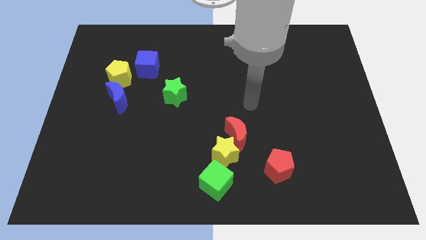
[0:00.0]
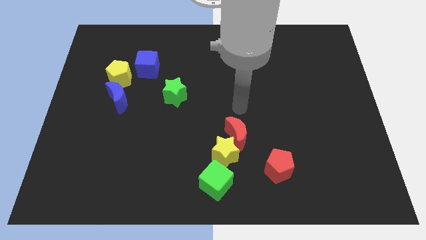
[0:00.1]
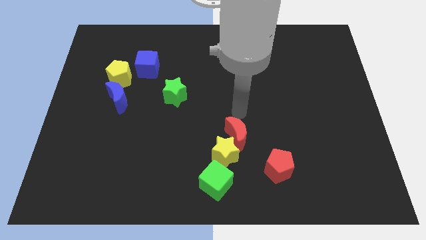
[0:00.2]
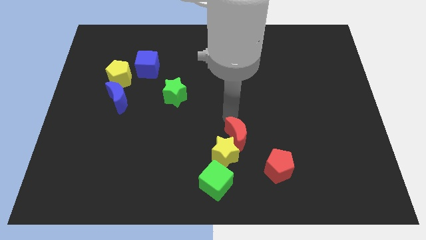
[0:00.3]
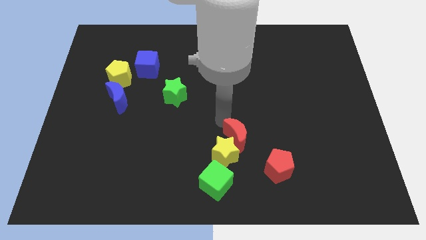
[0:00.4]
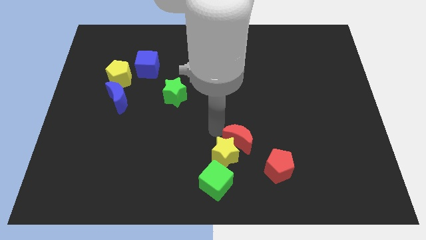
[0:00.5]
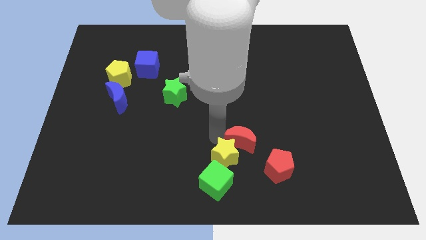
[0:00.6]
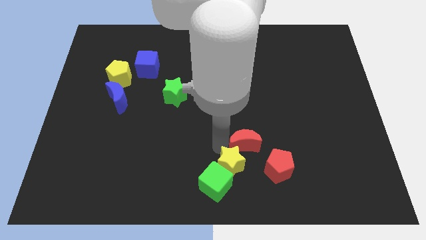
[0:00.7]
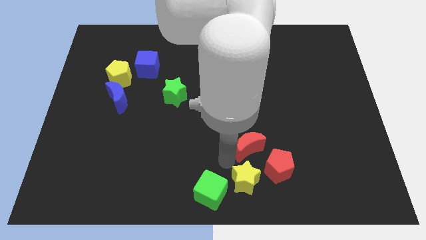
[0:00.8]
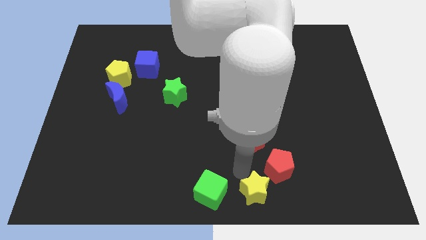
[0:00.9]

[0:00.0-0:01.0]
pull the red moon apart from the yellow star

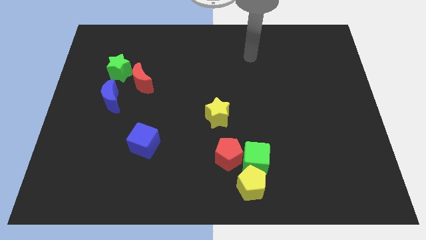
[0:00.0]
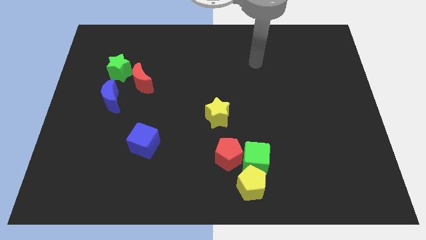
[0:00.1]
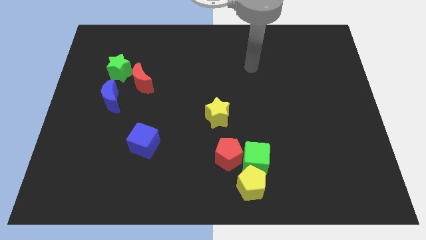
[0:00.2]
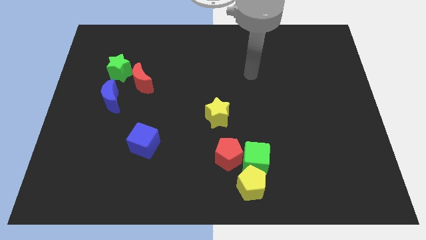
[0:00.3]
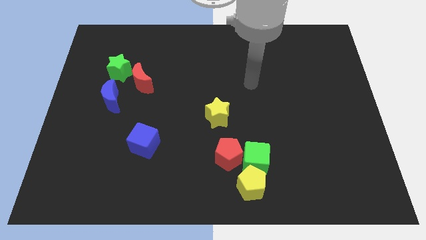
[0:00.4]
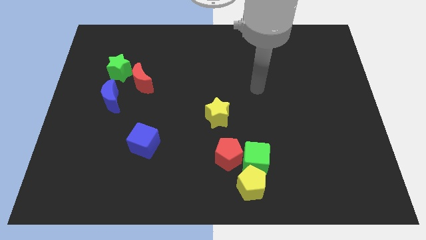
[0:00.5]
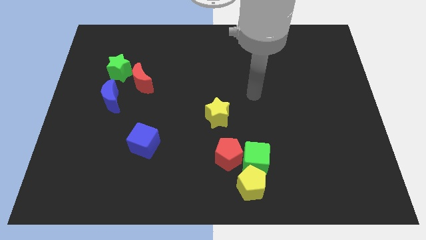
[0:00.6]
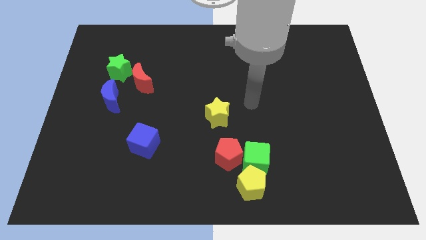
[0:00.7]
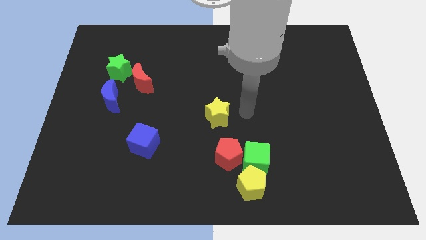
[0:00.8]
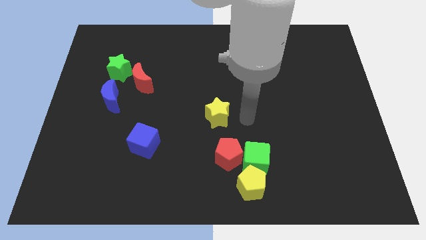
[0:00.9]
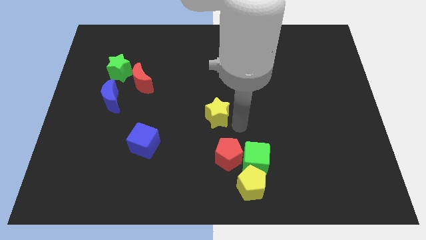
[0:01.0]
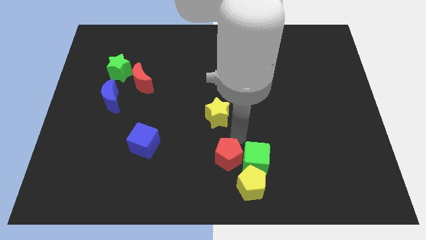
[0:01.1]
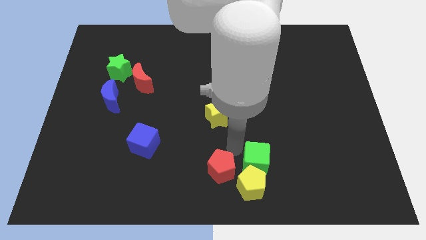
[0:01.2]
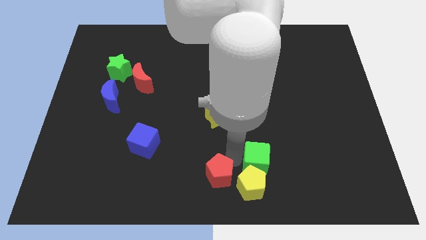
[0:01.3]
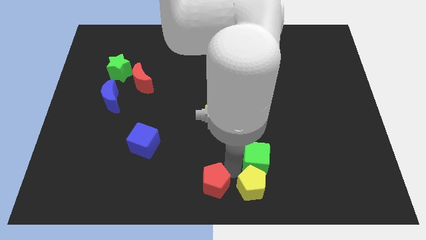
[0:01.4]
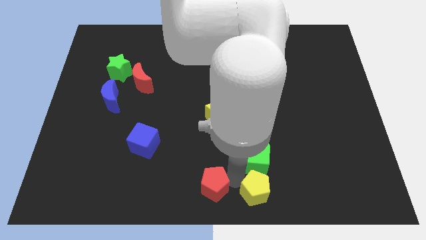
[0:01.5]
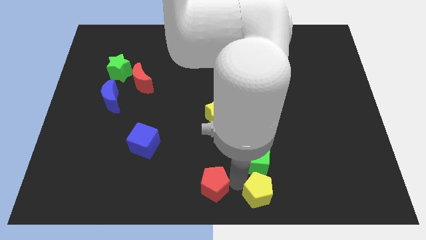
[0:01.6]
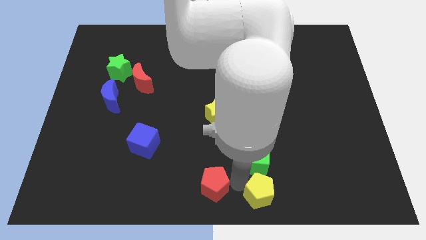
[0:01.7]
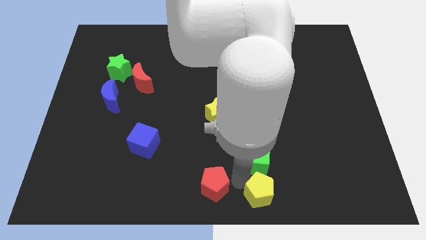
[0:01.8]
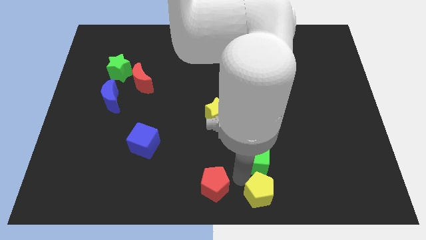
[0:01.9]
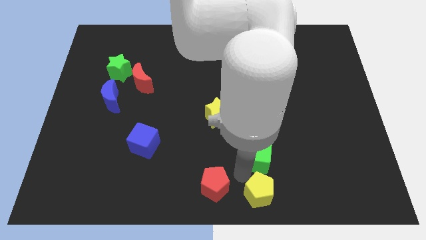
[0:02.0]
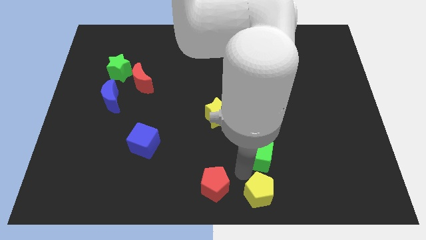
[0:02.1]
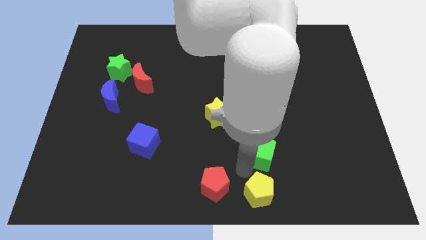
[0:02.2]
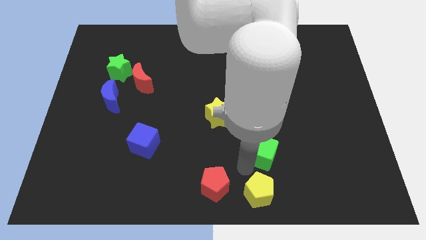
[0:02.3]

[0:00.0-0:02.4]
move the green cube away from the red pentagon and yellow pentagon

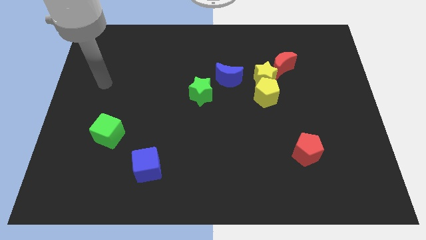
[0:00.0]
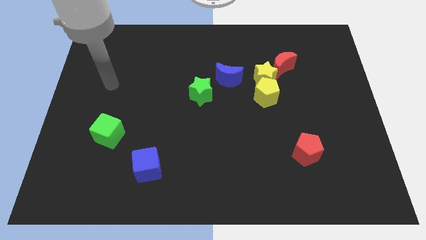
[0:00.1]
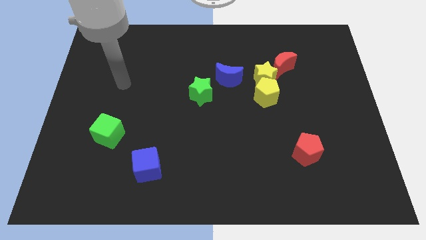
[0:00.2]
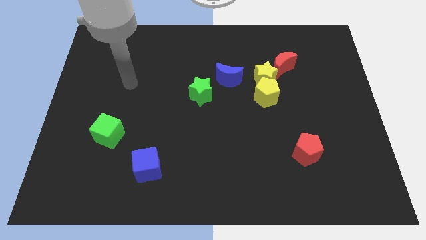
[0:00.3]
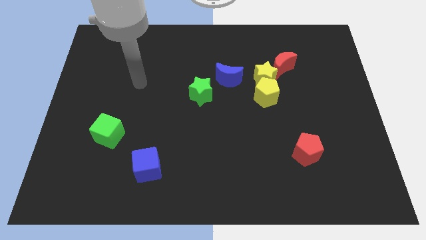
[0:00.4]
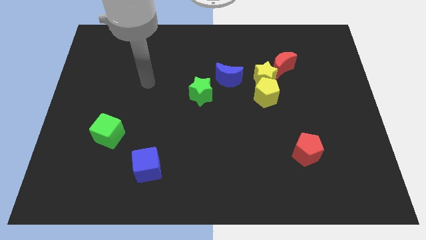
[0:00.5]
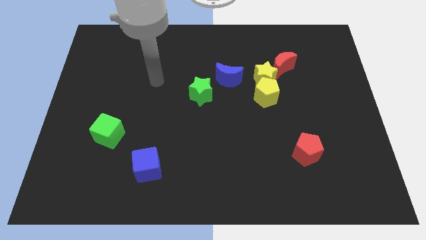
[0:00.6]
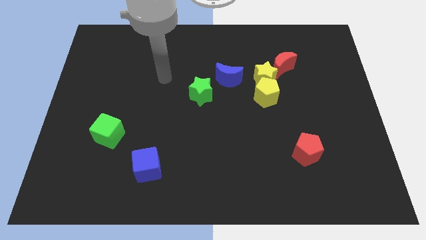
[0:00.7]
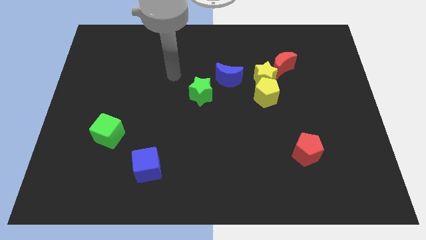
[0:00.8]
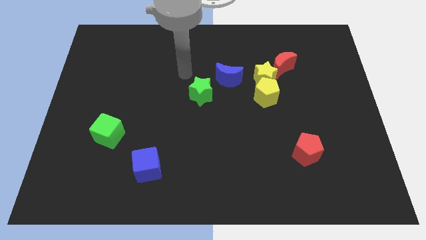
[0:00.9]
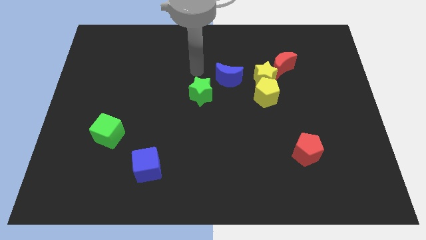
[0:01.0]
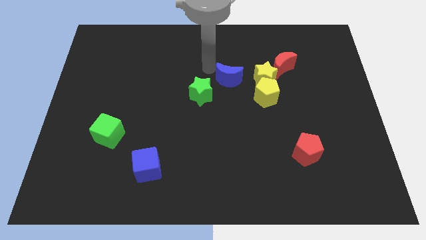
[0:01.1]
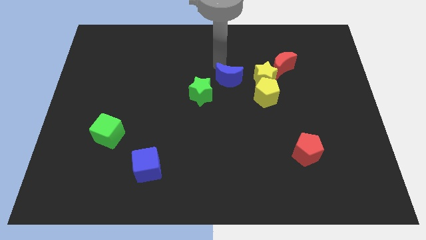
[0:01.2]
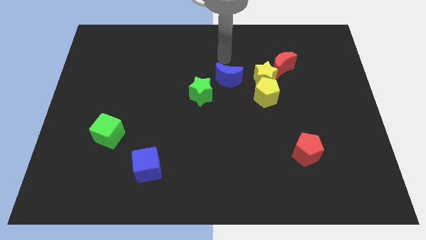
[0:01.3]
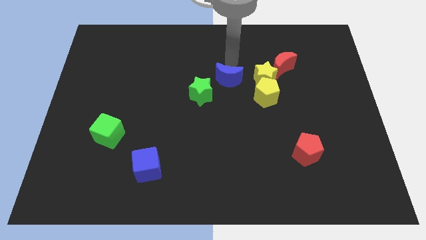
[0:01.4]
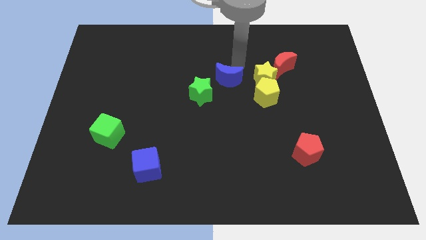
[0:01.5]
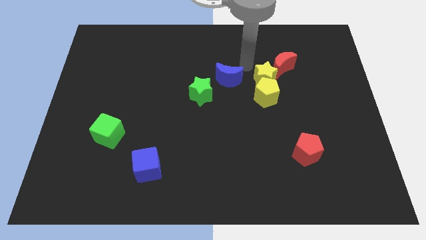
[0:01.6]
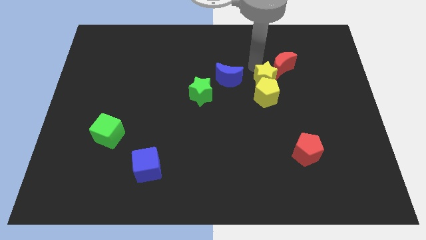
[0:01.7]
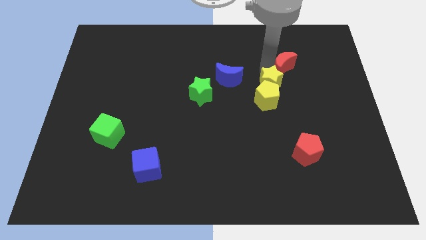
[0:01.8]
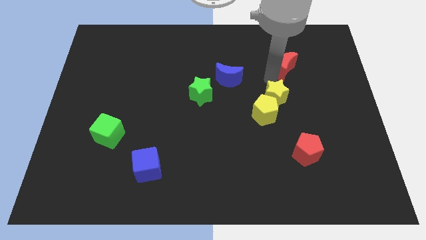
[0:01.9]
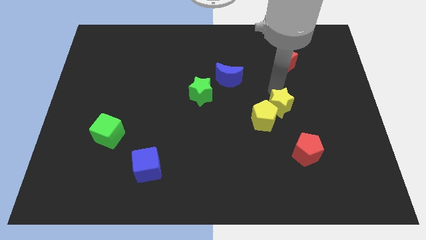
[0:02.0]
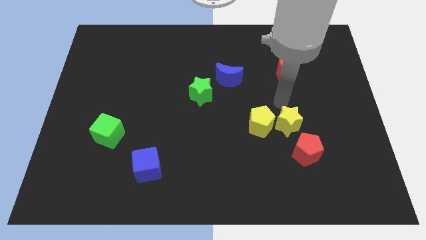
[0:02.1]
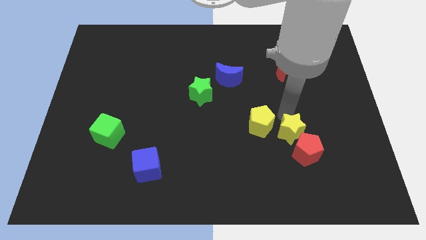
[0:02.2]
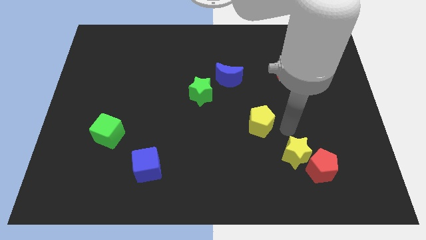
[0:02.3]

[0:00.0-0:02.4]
pull the yellow pentagon apart from the yellow star

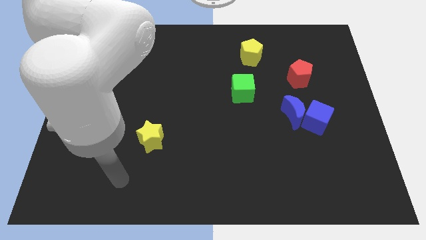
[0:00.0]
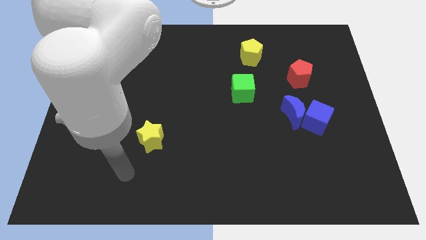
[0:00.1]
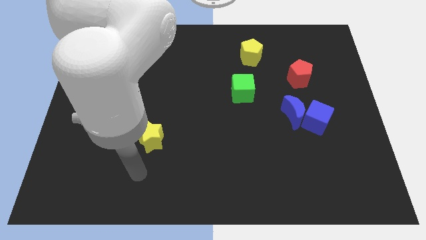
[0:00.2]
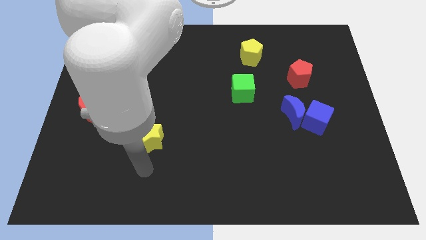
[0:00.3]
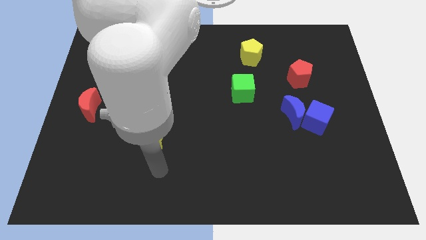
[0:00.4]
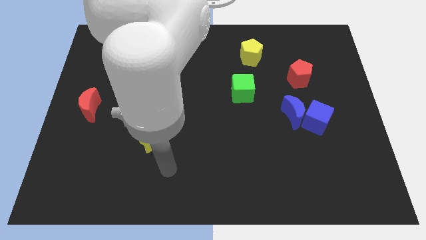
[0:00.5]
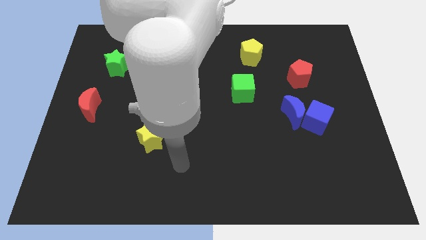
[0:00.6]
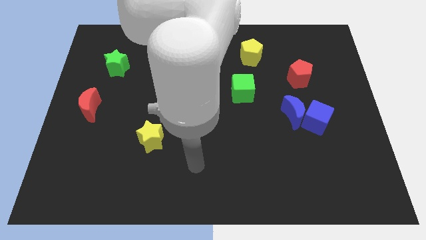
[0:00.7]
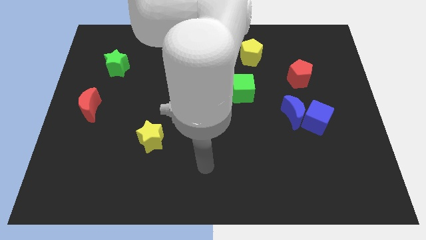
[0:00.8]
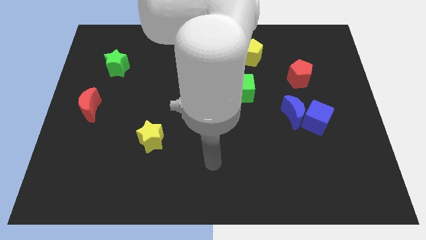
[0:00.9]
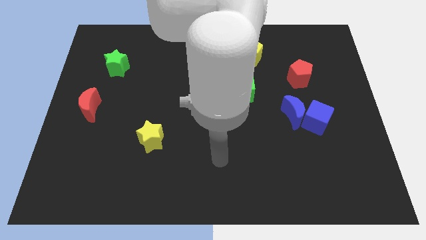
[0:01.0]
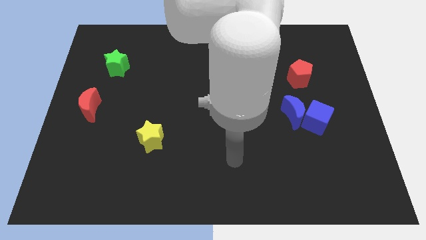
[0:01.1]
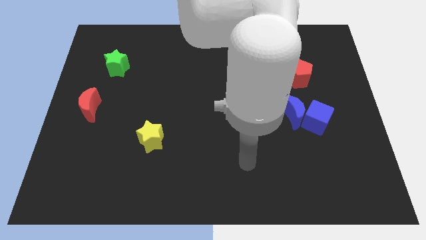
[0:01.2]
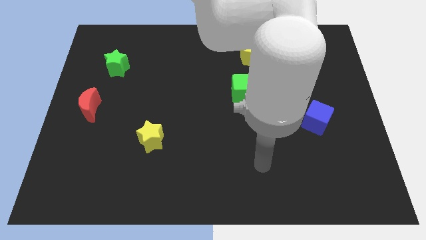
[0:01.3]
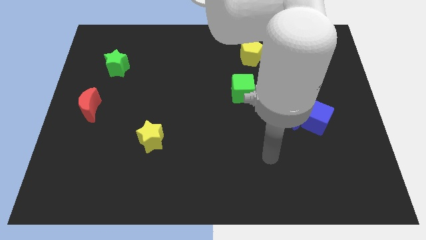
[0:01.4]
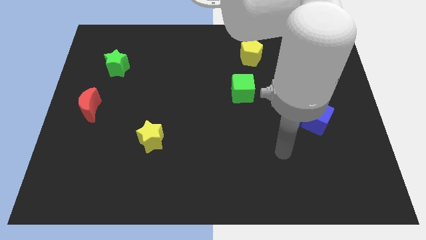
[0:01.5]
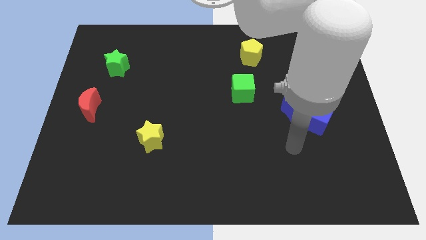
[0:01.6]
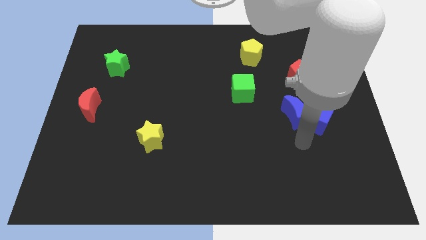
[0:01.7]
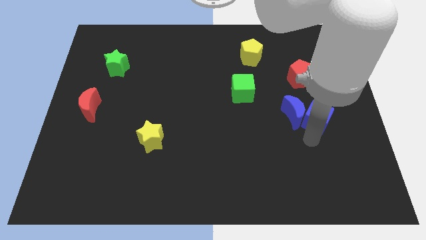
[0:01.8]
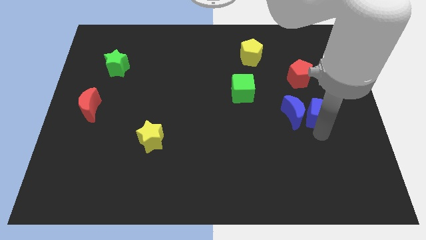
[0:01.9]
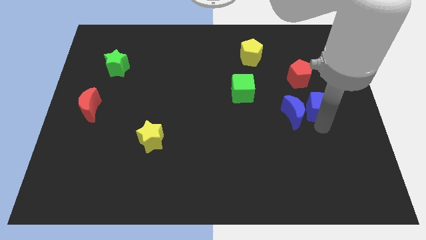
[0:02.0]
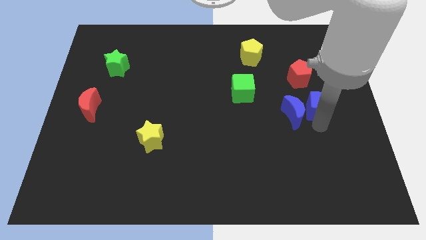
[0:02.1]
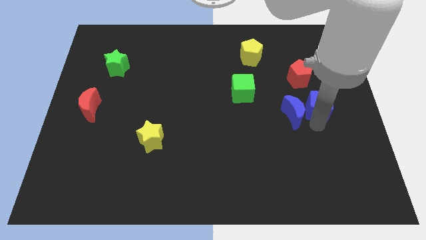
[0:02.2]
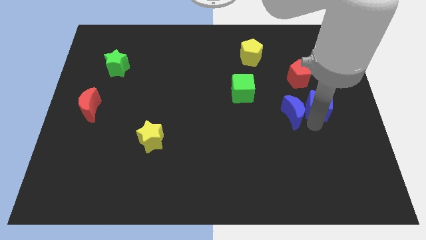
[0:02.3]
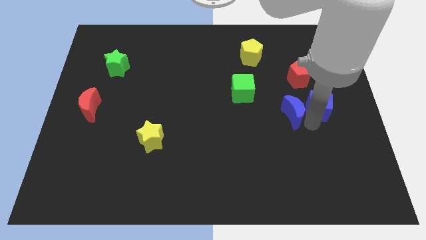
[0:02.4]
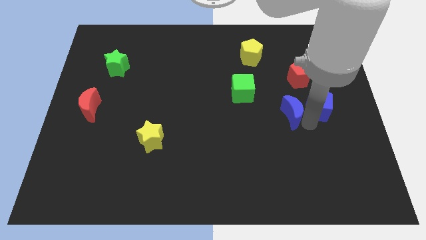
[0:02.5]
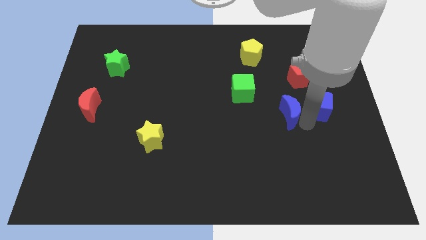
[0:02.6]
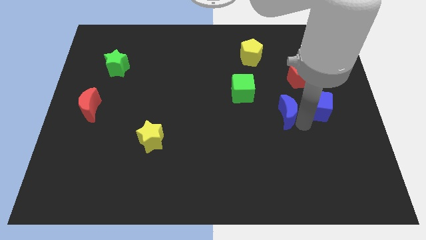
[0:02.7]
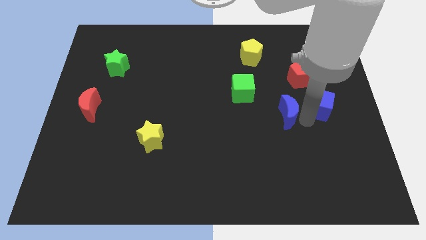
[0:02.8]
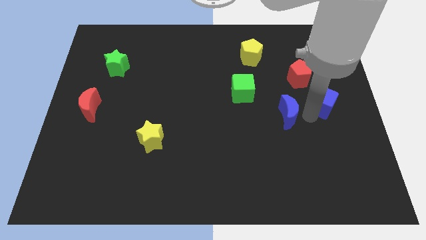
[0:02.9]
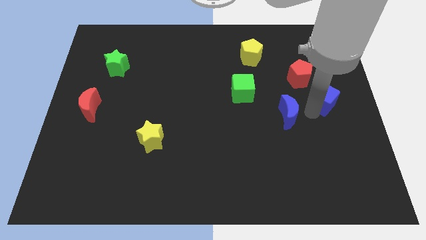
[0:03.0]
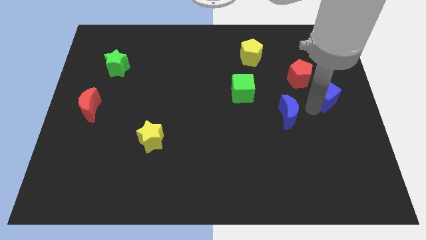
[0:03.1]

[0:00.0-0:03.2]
move the blue moon away from the blue cube

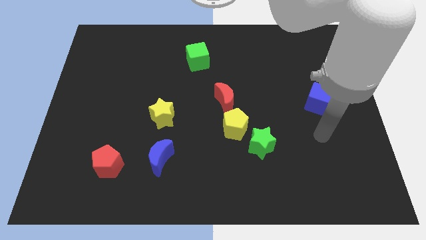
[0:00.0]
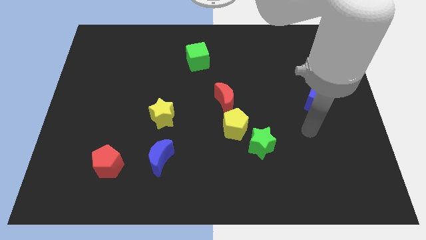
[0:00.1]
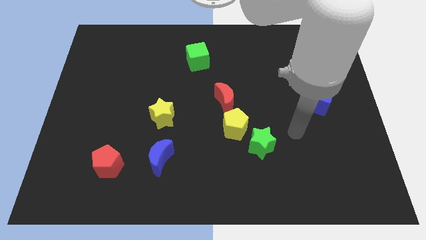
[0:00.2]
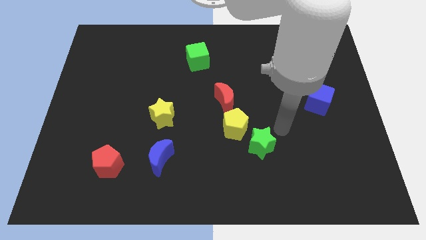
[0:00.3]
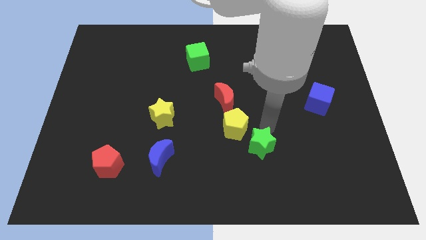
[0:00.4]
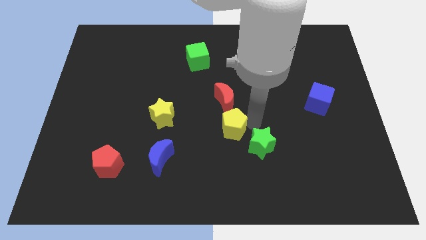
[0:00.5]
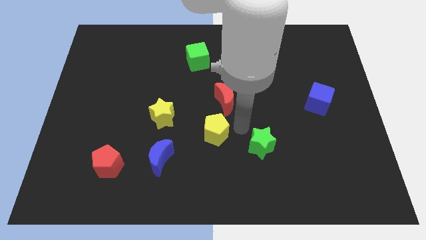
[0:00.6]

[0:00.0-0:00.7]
move the green star away from the yellow pentagon
